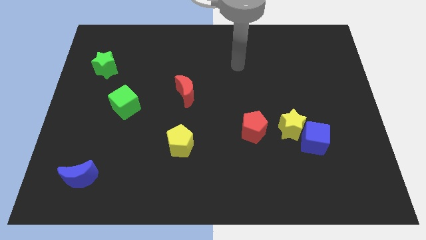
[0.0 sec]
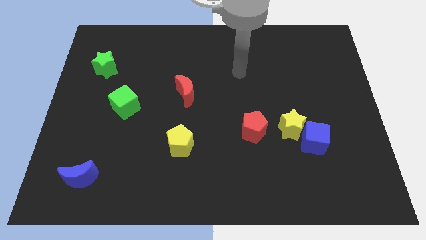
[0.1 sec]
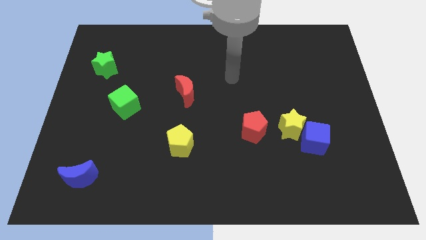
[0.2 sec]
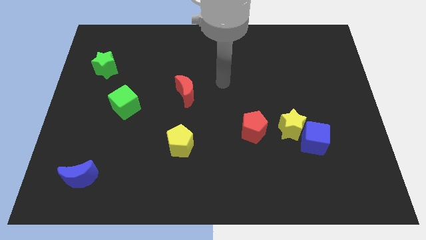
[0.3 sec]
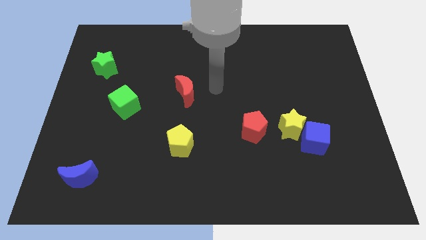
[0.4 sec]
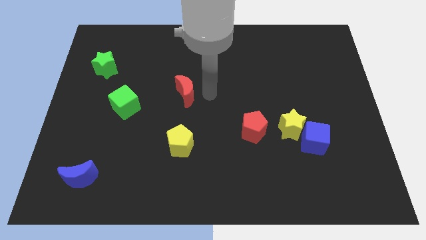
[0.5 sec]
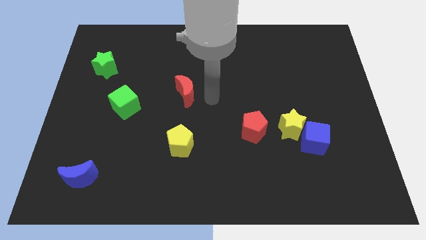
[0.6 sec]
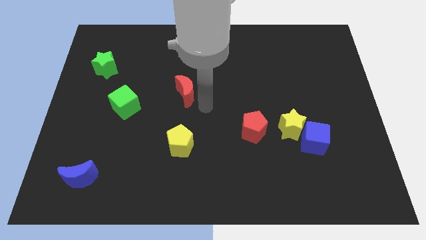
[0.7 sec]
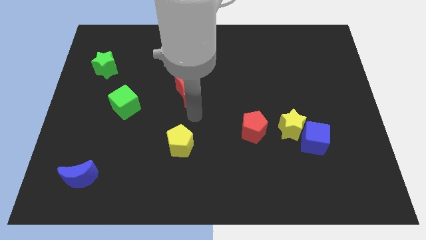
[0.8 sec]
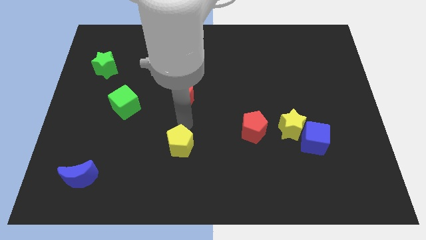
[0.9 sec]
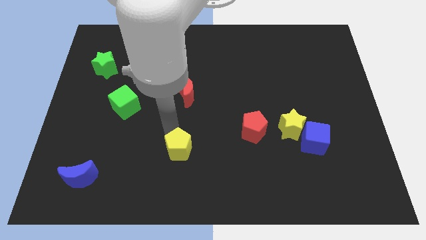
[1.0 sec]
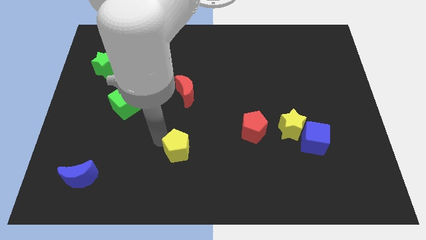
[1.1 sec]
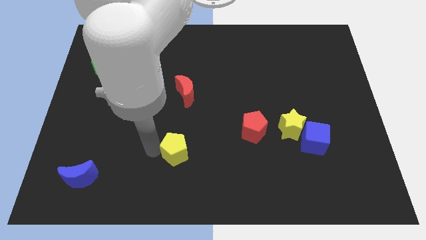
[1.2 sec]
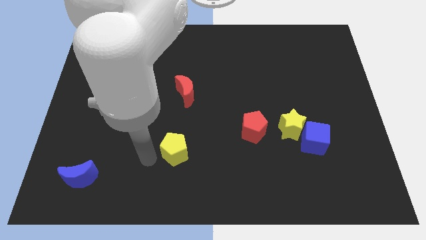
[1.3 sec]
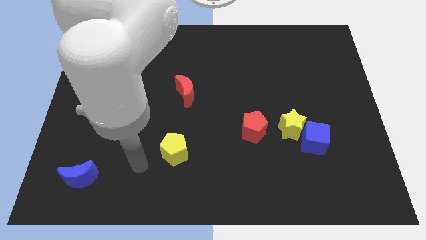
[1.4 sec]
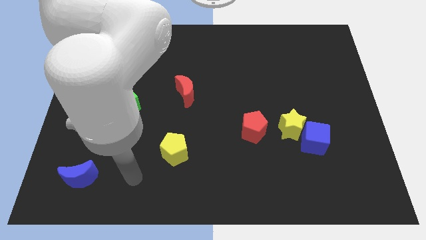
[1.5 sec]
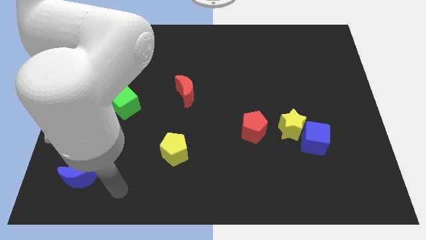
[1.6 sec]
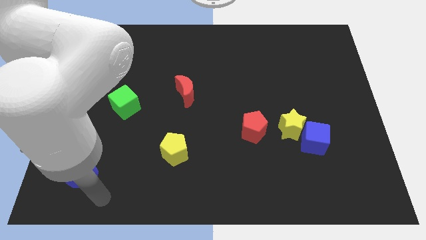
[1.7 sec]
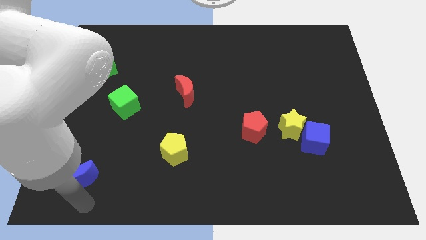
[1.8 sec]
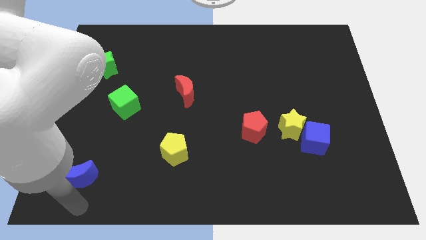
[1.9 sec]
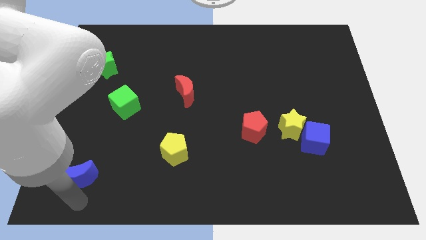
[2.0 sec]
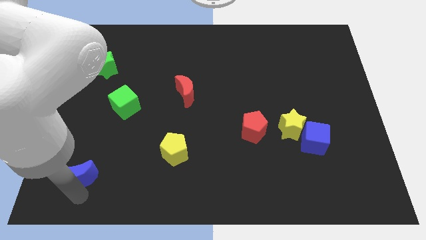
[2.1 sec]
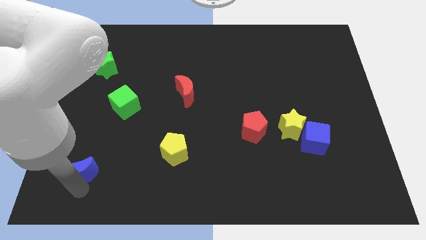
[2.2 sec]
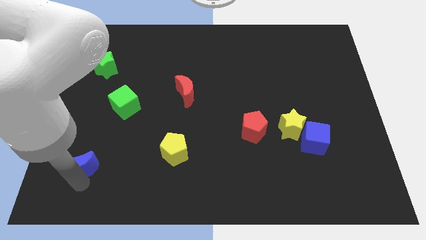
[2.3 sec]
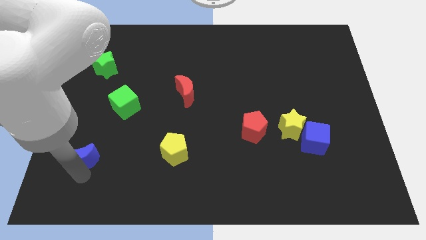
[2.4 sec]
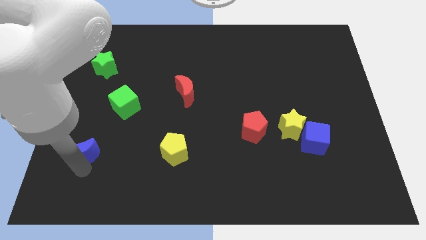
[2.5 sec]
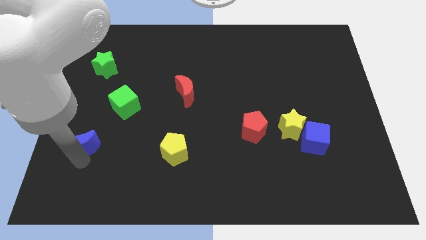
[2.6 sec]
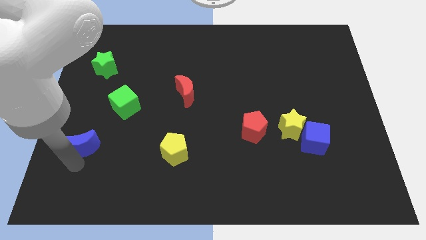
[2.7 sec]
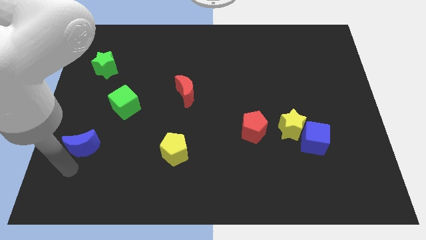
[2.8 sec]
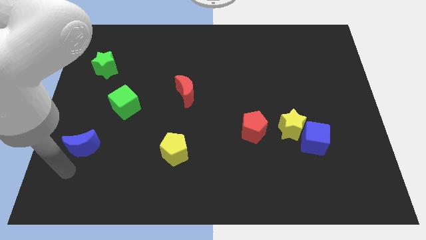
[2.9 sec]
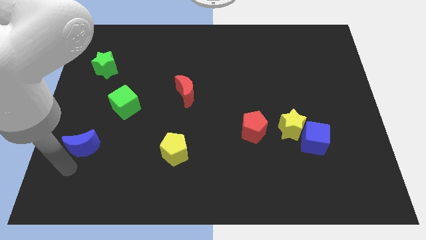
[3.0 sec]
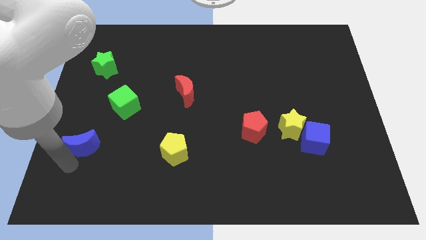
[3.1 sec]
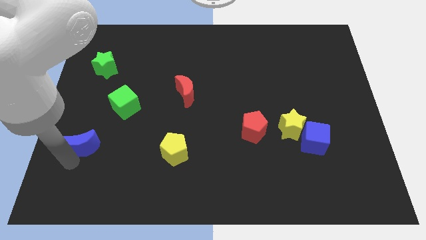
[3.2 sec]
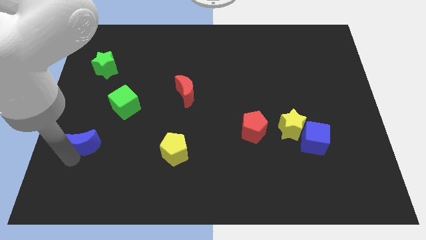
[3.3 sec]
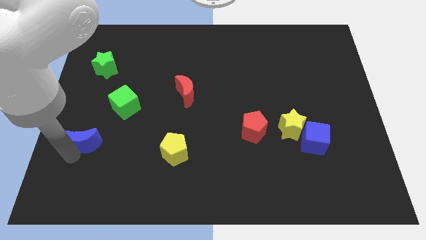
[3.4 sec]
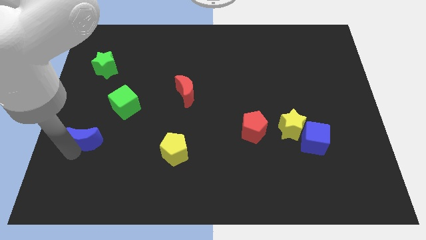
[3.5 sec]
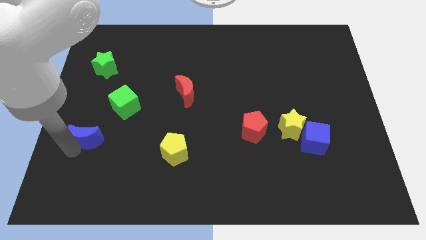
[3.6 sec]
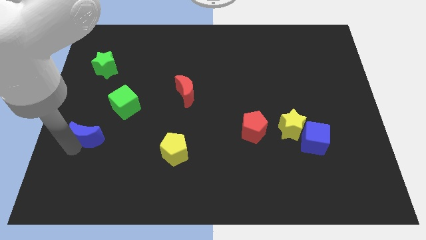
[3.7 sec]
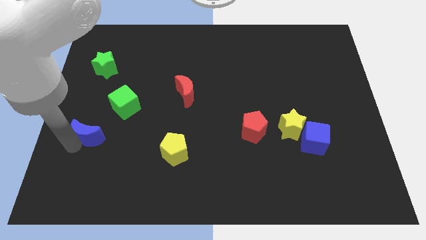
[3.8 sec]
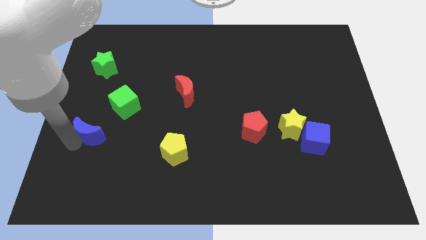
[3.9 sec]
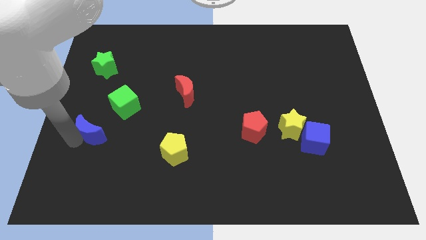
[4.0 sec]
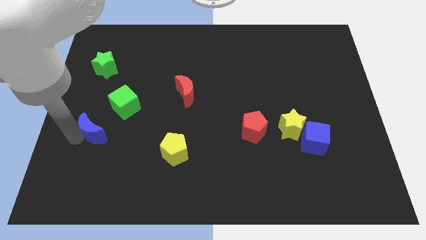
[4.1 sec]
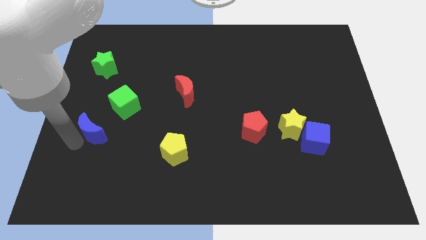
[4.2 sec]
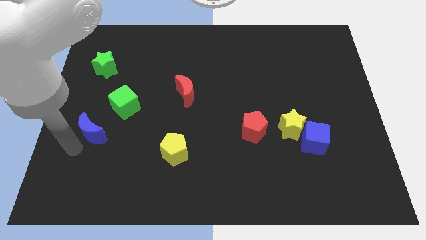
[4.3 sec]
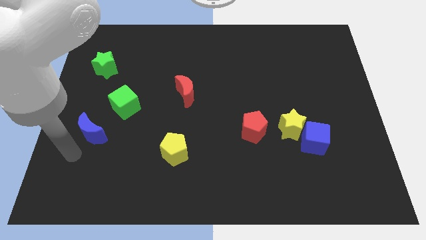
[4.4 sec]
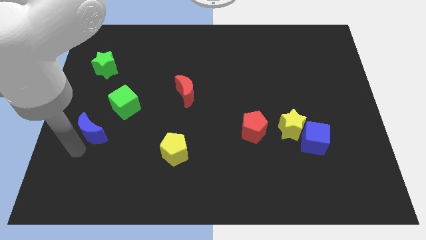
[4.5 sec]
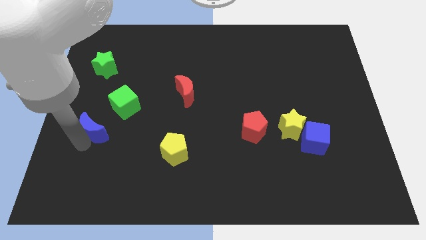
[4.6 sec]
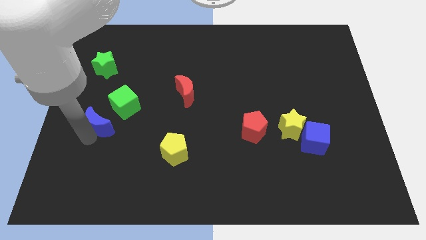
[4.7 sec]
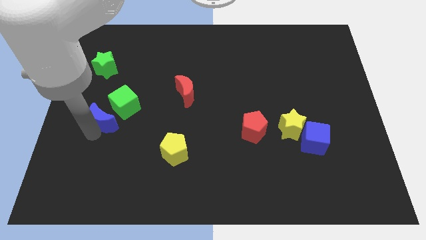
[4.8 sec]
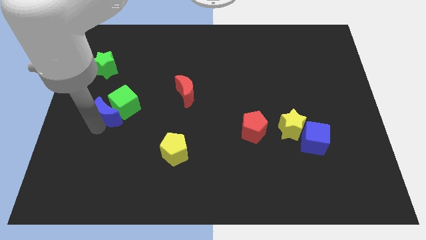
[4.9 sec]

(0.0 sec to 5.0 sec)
slide the blue moon to the green cube

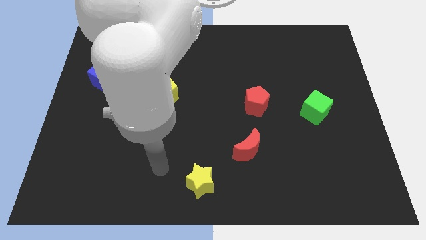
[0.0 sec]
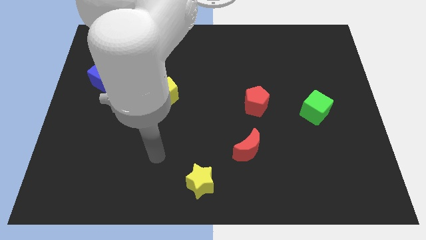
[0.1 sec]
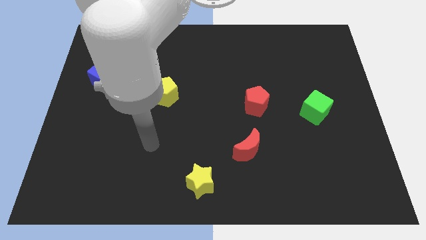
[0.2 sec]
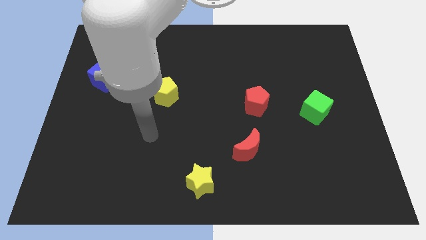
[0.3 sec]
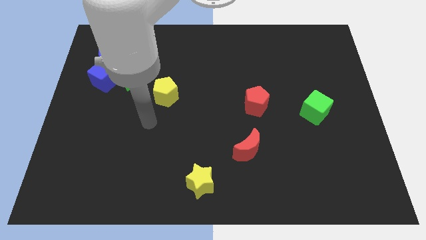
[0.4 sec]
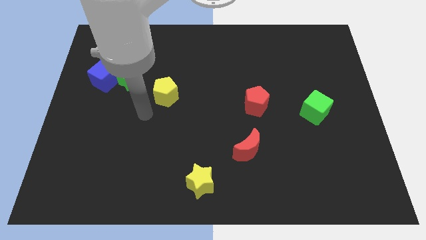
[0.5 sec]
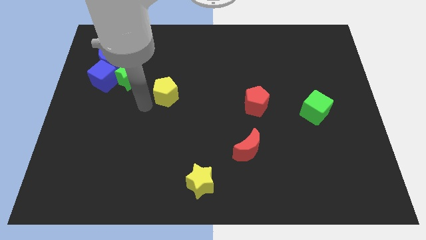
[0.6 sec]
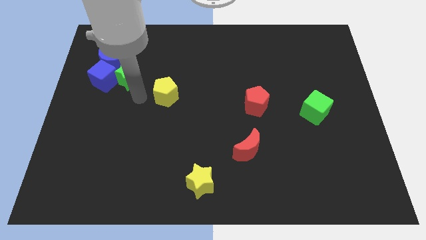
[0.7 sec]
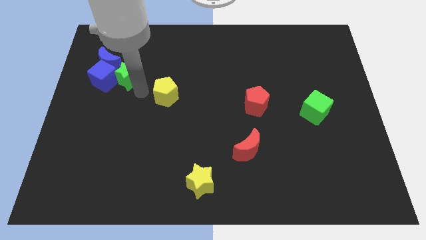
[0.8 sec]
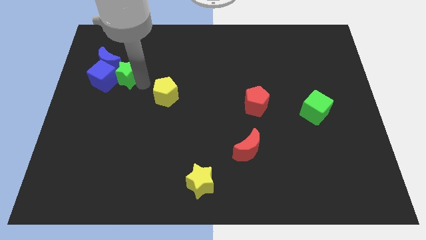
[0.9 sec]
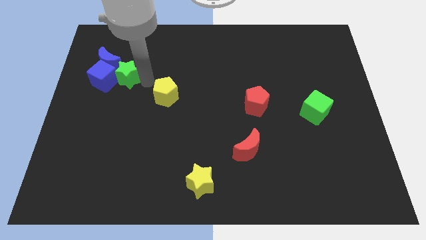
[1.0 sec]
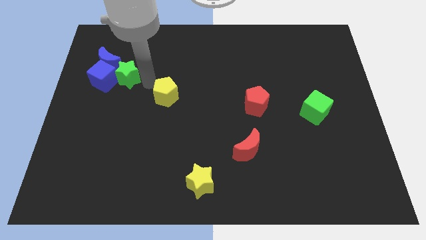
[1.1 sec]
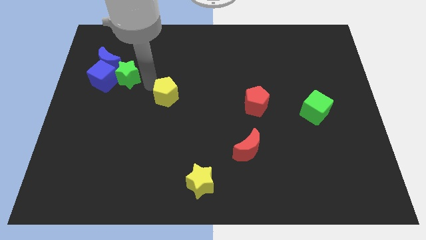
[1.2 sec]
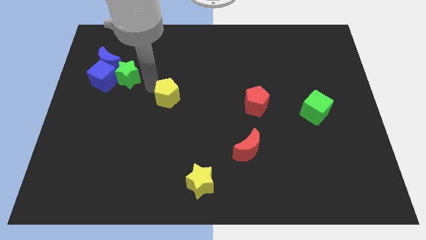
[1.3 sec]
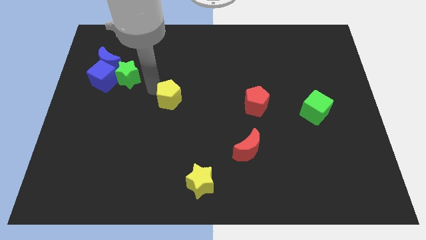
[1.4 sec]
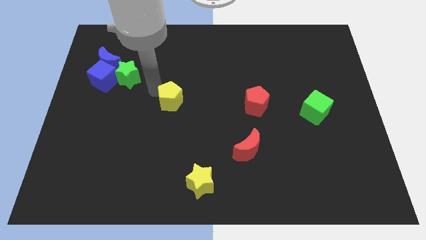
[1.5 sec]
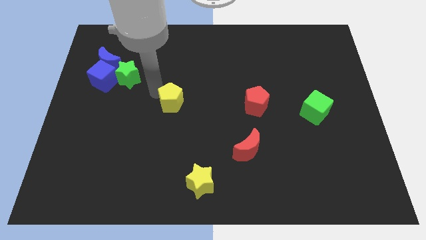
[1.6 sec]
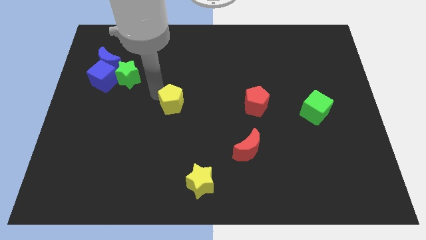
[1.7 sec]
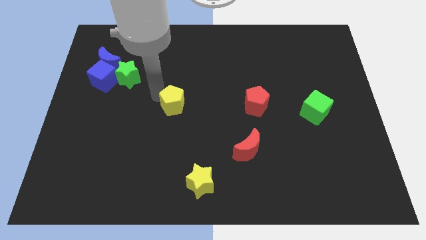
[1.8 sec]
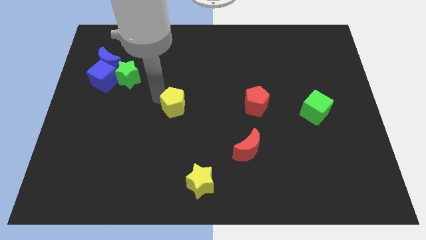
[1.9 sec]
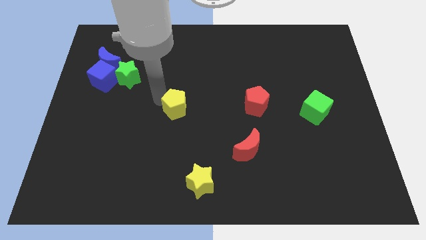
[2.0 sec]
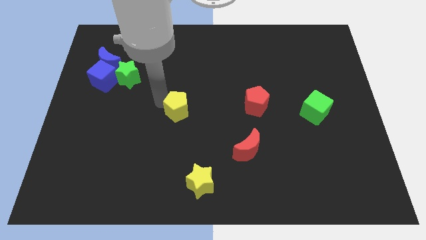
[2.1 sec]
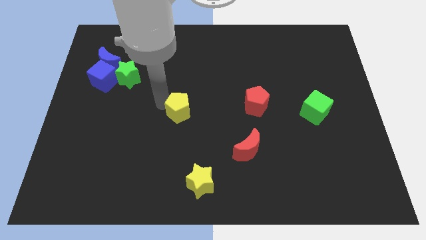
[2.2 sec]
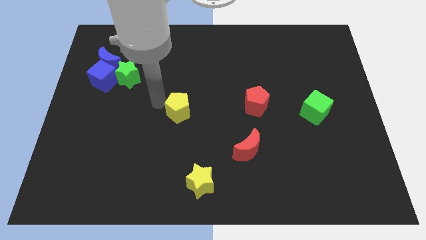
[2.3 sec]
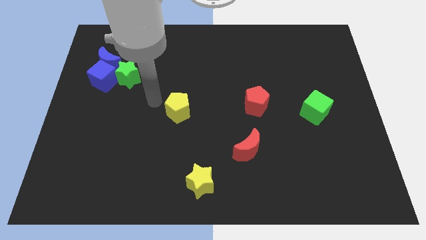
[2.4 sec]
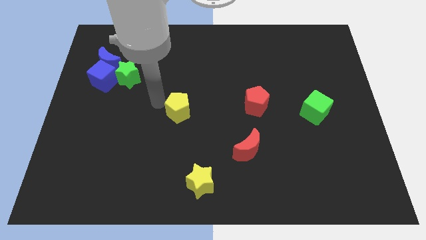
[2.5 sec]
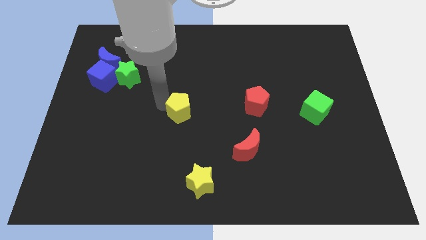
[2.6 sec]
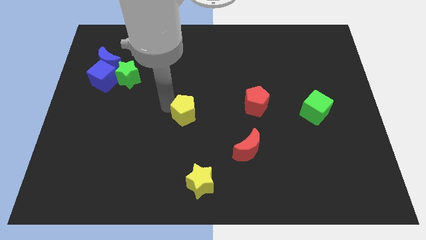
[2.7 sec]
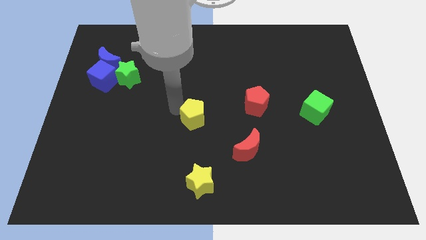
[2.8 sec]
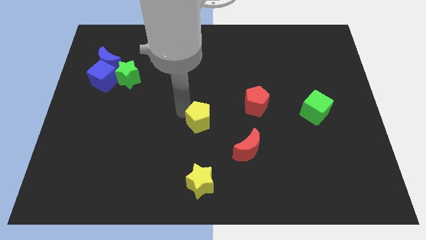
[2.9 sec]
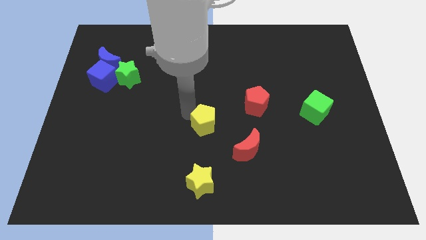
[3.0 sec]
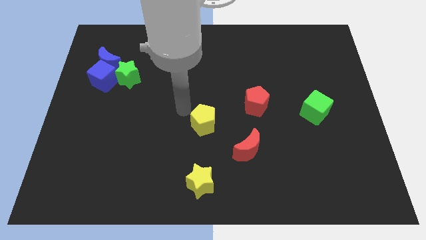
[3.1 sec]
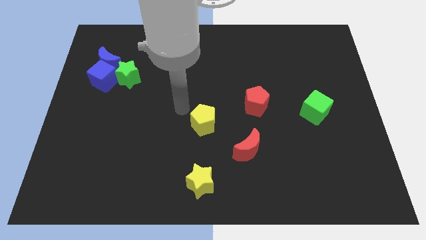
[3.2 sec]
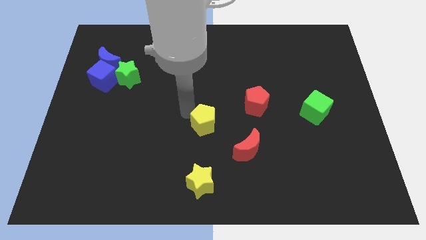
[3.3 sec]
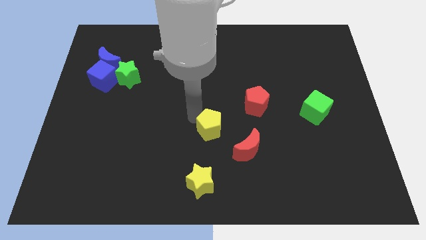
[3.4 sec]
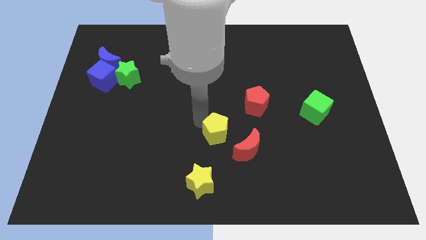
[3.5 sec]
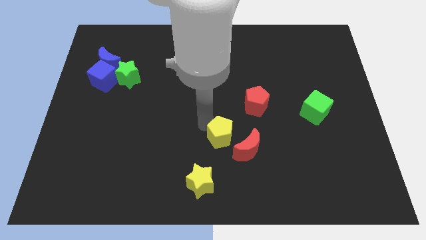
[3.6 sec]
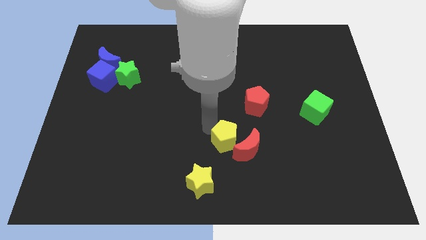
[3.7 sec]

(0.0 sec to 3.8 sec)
push the yellow pentagon close to the red moon
